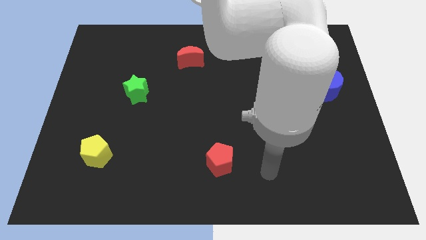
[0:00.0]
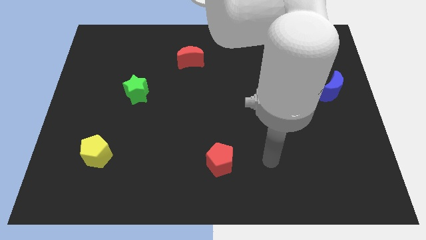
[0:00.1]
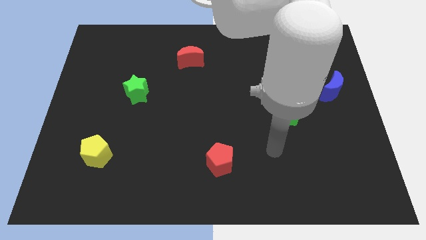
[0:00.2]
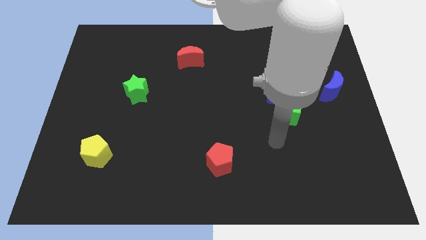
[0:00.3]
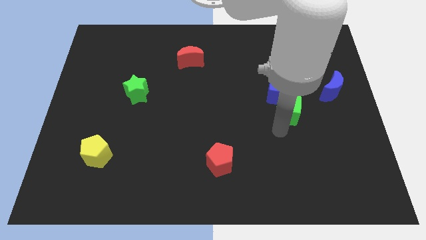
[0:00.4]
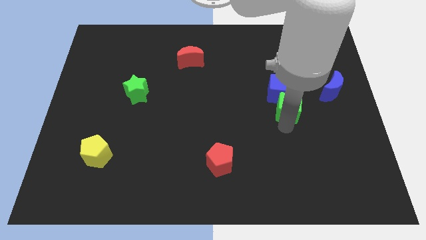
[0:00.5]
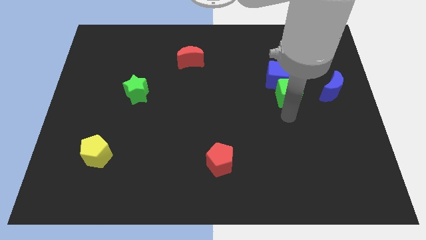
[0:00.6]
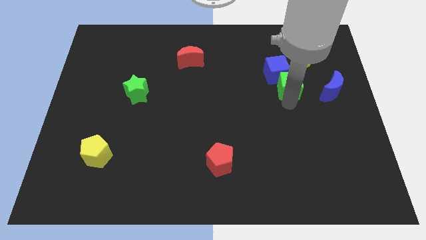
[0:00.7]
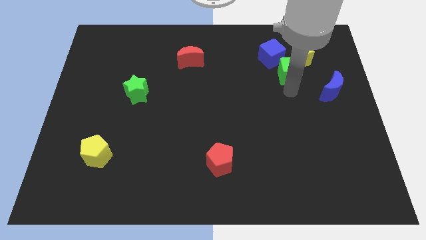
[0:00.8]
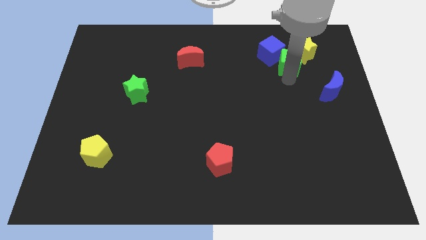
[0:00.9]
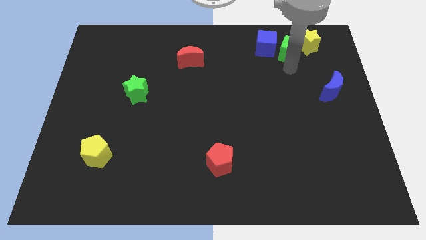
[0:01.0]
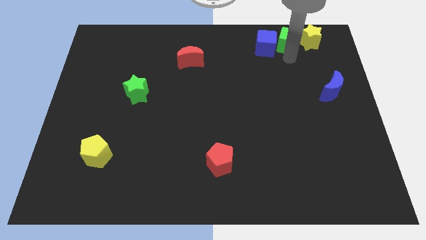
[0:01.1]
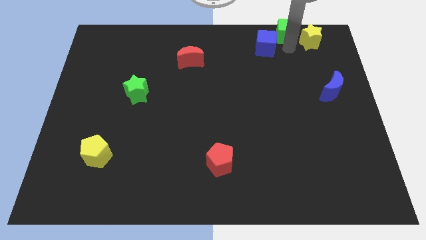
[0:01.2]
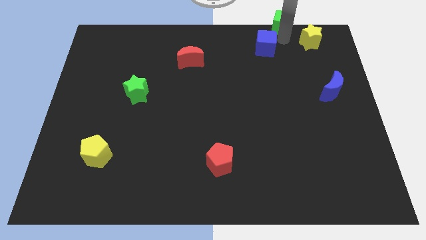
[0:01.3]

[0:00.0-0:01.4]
separate the blue cube from the green cube

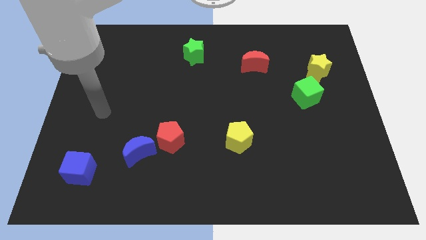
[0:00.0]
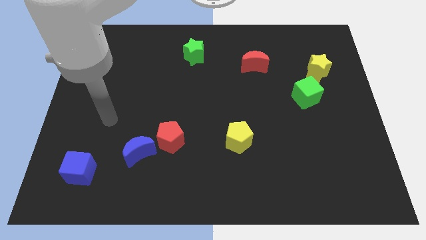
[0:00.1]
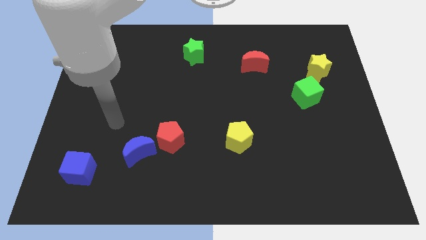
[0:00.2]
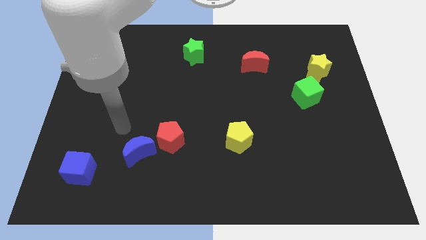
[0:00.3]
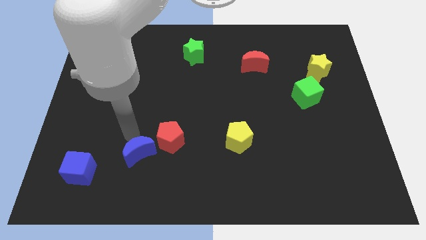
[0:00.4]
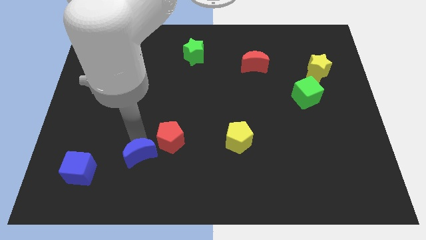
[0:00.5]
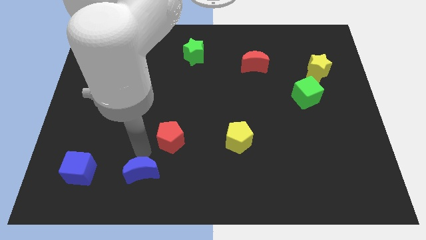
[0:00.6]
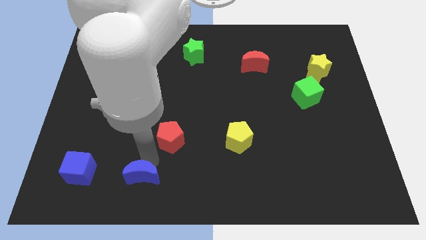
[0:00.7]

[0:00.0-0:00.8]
separate the red pentagon from the blue moon

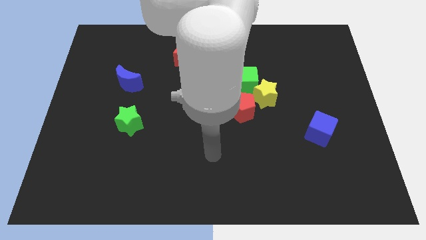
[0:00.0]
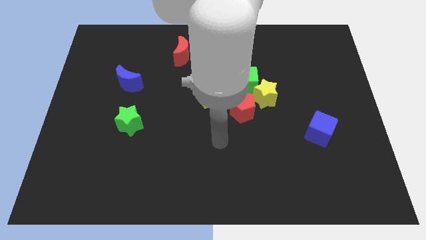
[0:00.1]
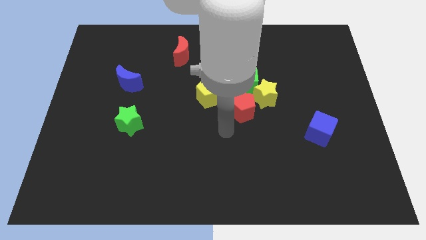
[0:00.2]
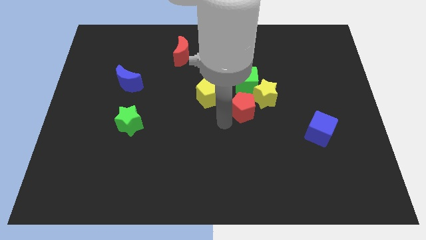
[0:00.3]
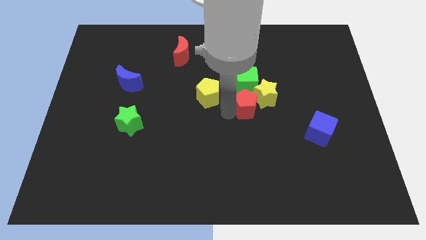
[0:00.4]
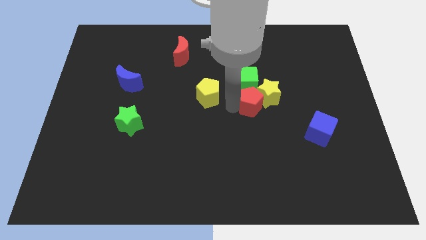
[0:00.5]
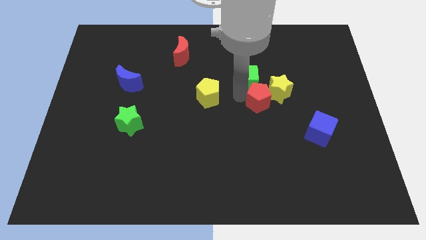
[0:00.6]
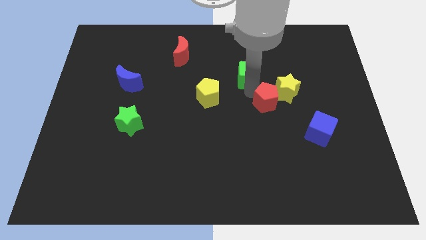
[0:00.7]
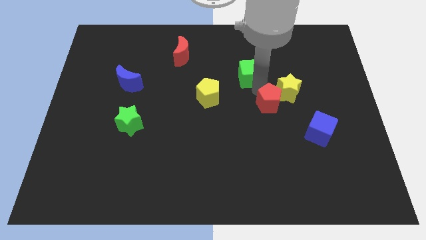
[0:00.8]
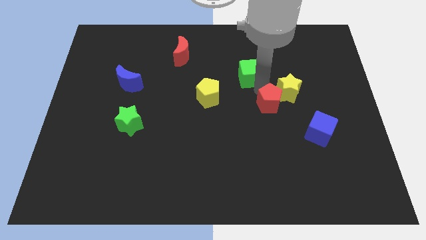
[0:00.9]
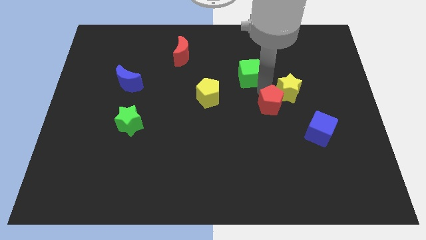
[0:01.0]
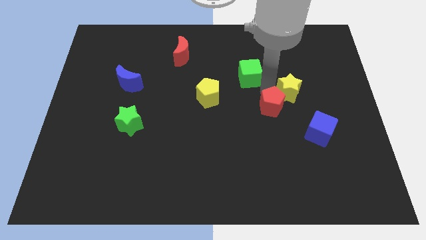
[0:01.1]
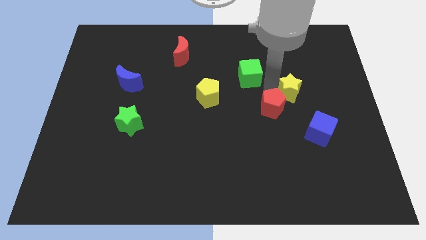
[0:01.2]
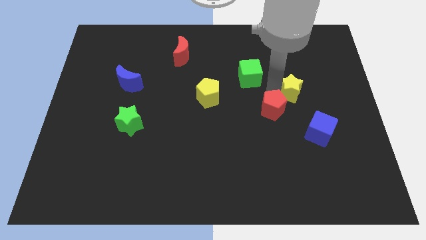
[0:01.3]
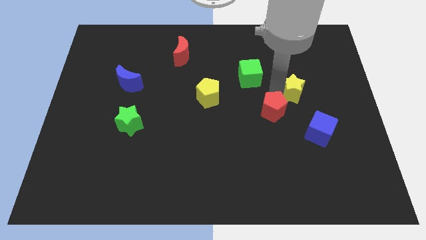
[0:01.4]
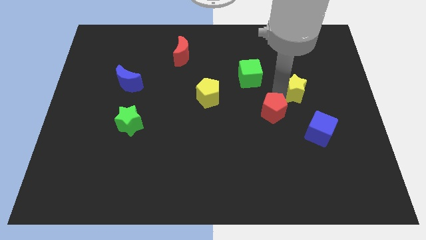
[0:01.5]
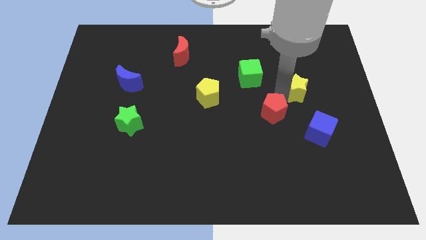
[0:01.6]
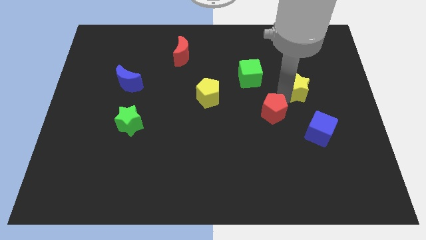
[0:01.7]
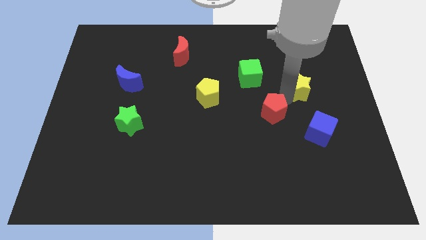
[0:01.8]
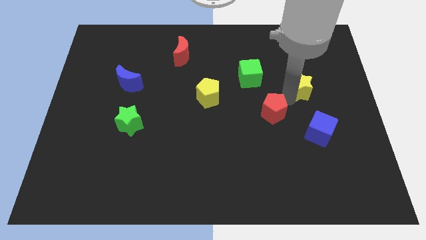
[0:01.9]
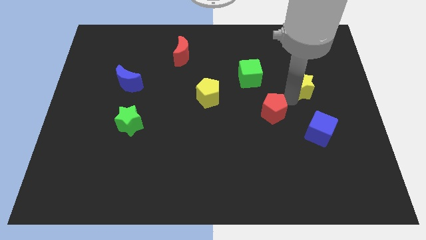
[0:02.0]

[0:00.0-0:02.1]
separate the yellow star from the green cube and red pentagon

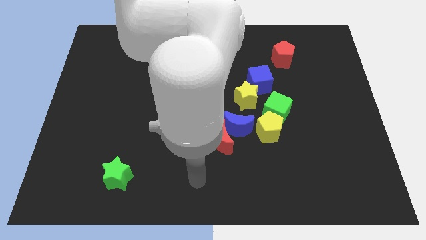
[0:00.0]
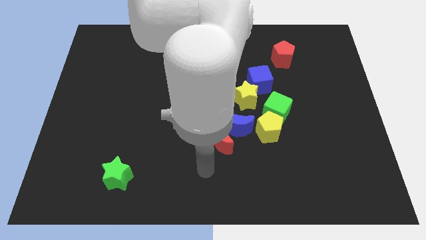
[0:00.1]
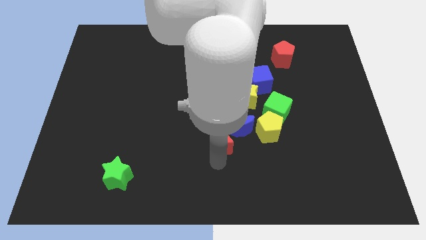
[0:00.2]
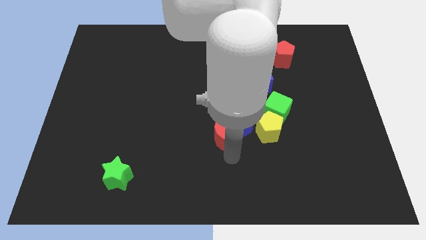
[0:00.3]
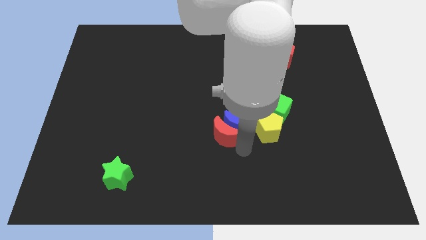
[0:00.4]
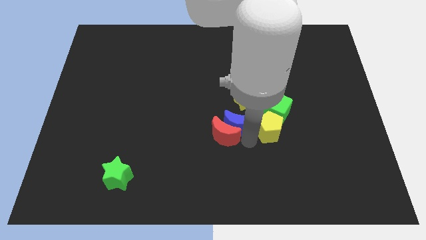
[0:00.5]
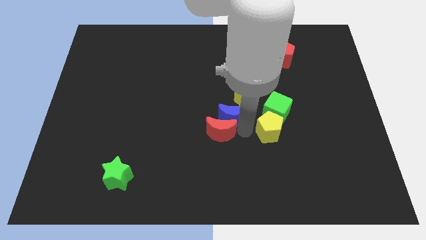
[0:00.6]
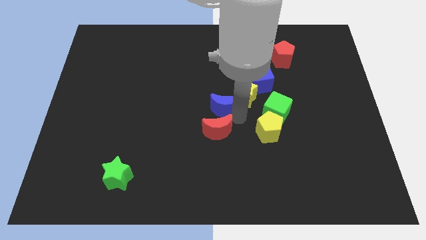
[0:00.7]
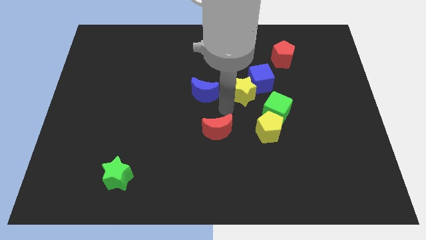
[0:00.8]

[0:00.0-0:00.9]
pull the red moon apart from the blue moon

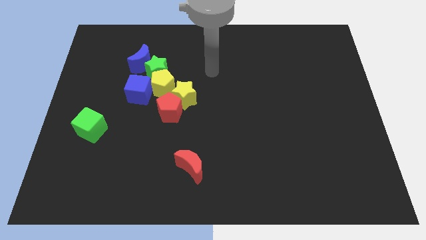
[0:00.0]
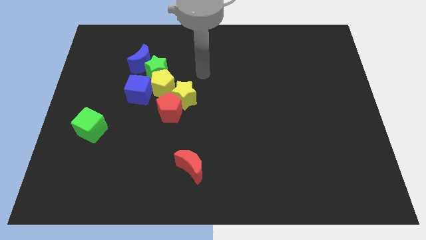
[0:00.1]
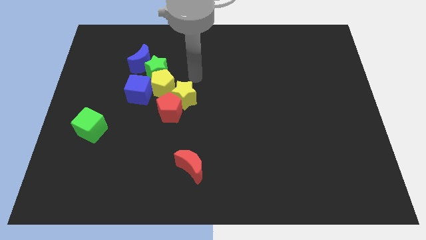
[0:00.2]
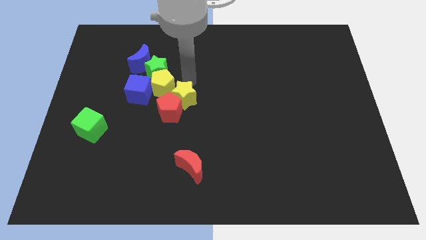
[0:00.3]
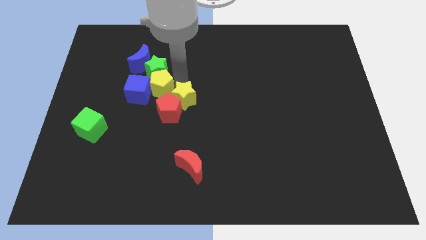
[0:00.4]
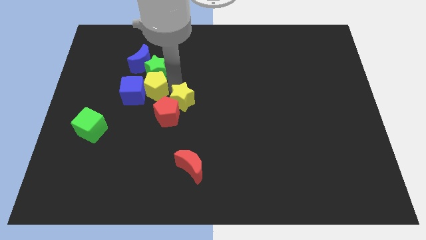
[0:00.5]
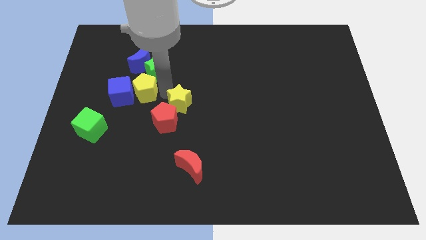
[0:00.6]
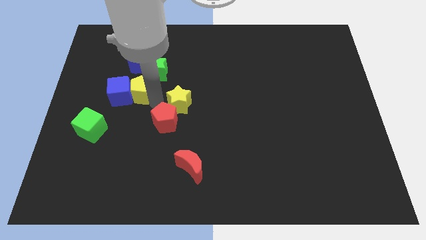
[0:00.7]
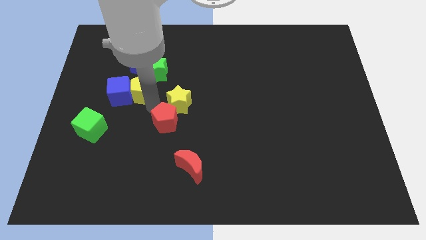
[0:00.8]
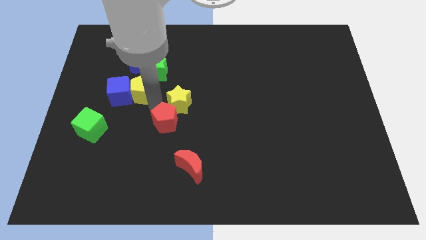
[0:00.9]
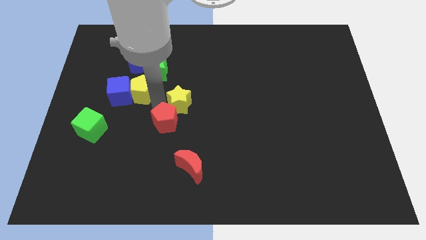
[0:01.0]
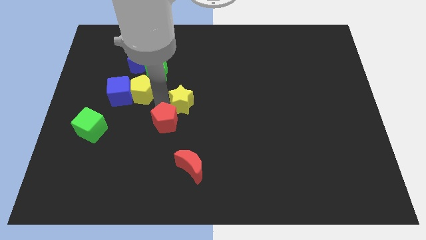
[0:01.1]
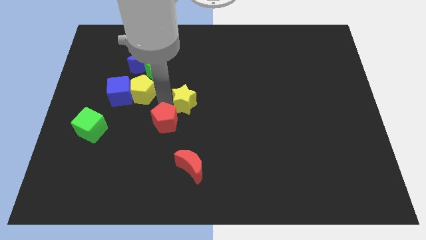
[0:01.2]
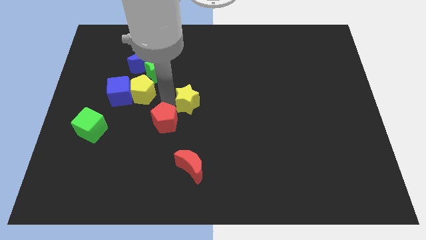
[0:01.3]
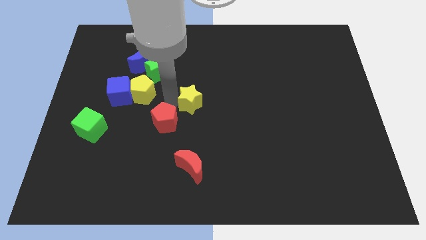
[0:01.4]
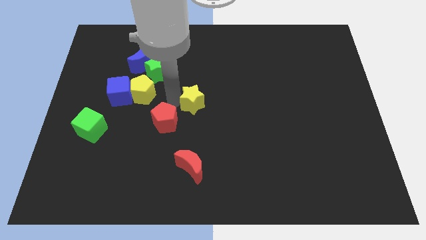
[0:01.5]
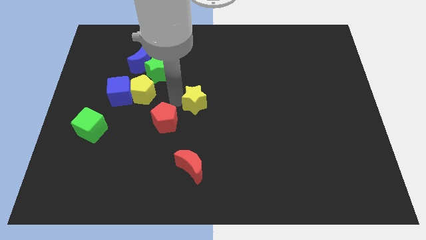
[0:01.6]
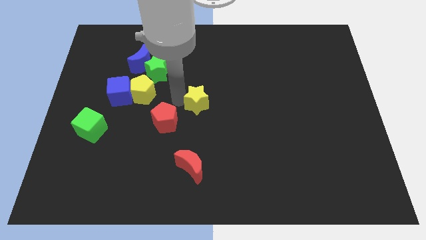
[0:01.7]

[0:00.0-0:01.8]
pull the yellow star apart from the red pentagon and yellow pentagon

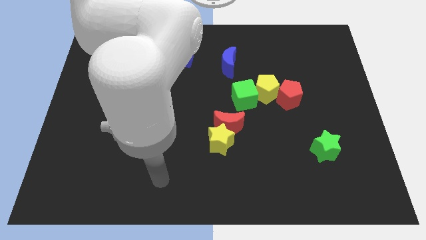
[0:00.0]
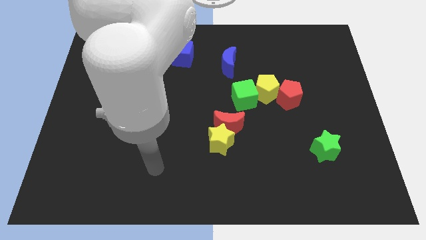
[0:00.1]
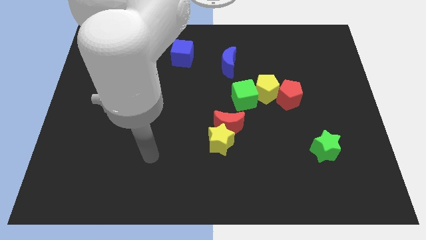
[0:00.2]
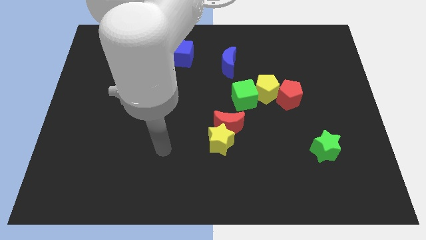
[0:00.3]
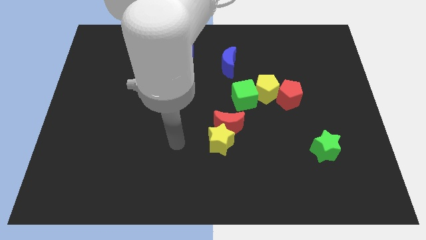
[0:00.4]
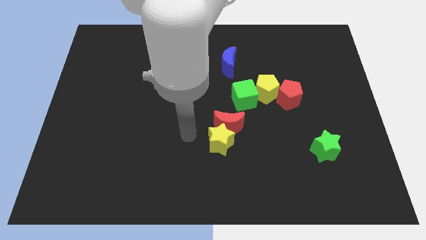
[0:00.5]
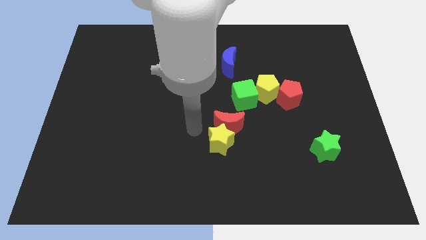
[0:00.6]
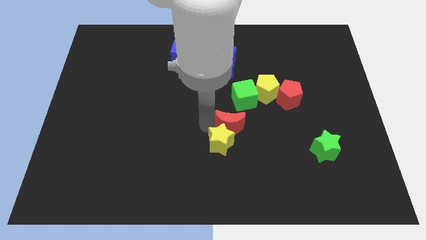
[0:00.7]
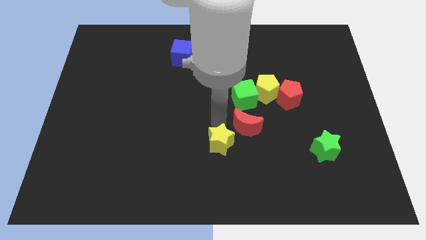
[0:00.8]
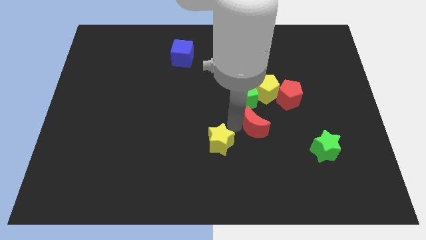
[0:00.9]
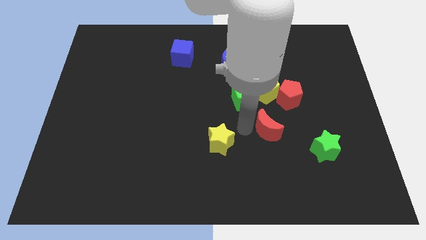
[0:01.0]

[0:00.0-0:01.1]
separate the yellow star from the red moon

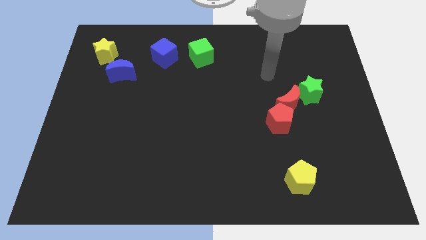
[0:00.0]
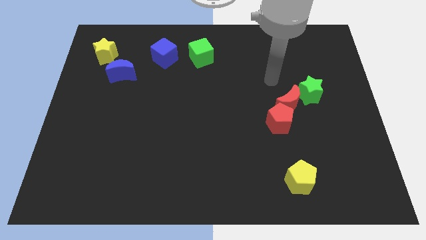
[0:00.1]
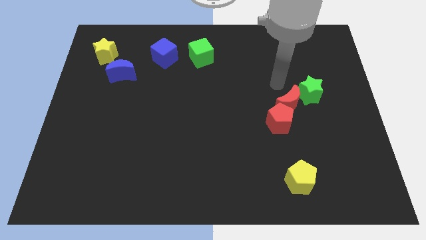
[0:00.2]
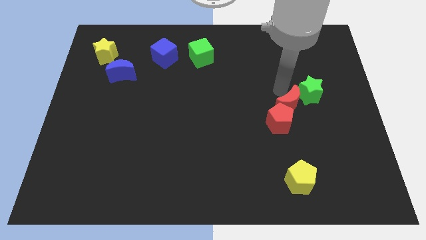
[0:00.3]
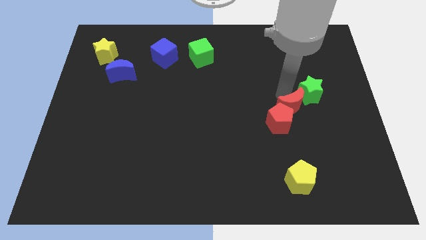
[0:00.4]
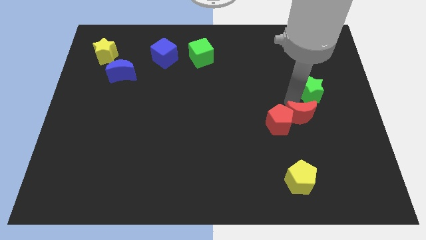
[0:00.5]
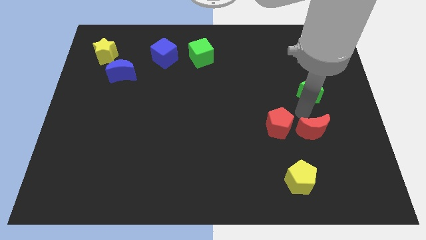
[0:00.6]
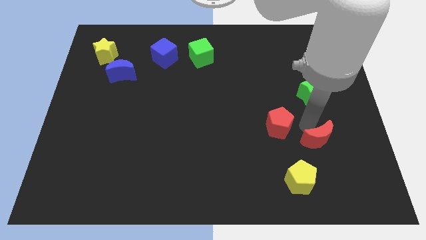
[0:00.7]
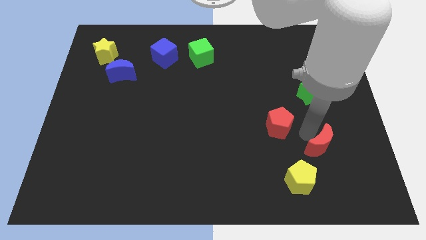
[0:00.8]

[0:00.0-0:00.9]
pull the red pentagon apart from the red moon

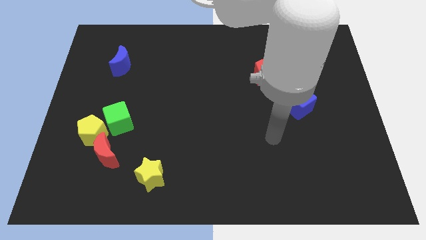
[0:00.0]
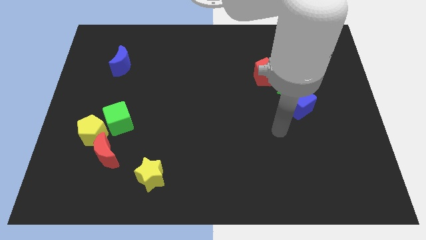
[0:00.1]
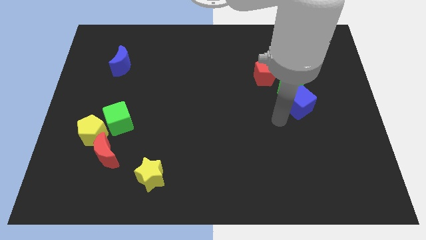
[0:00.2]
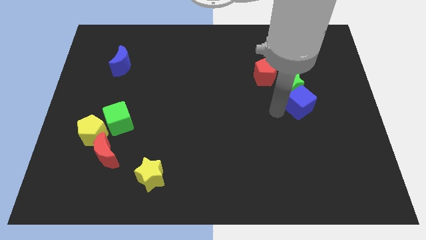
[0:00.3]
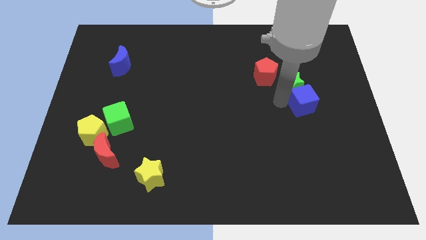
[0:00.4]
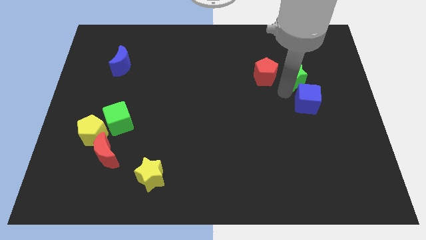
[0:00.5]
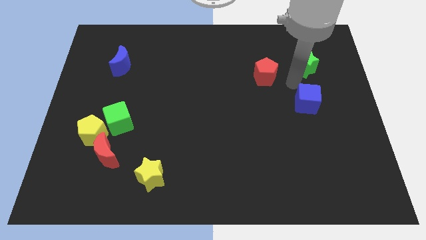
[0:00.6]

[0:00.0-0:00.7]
pull the blue cube apart from the green star
